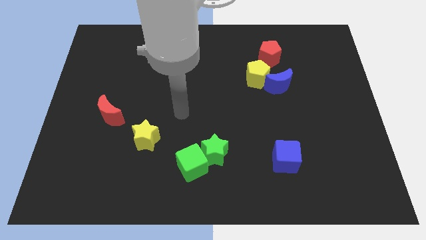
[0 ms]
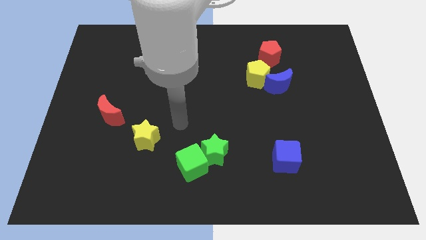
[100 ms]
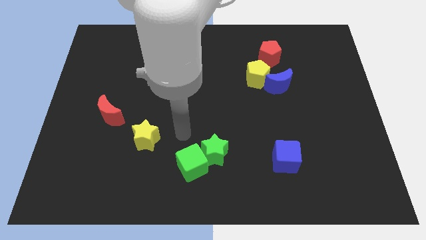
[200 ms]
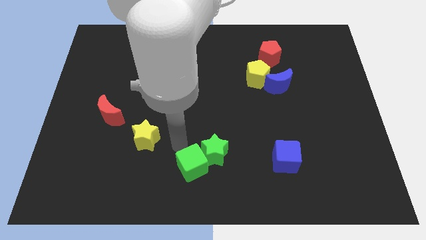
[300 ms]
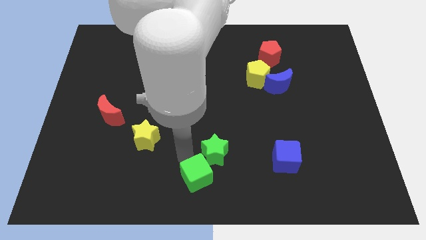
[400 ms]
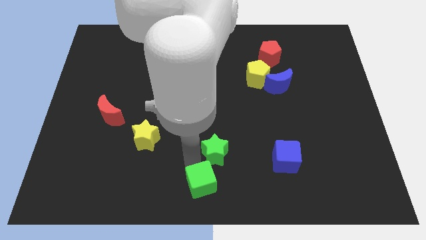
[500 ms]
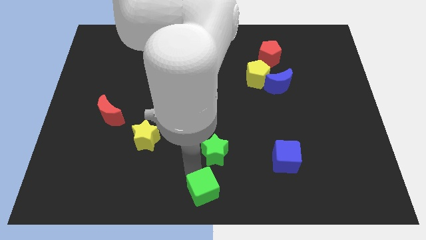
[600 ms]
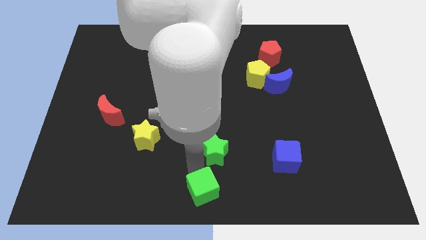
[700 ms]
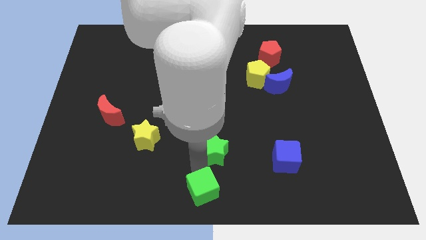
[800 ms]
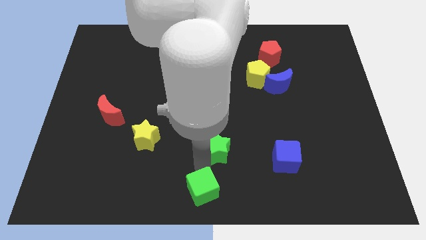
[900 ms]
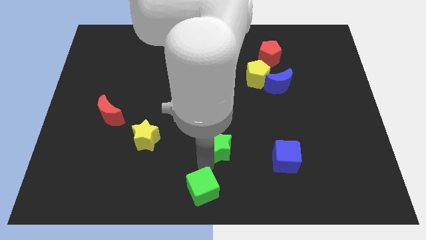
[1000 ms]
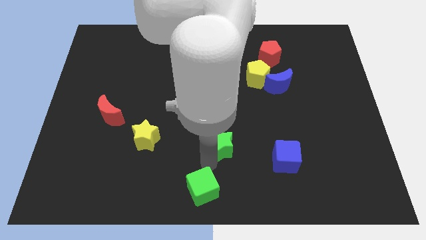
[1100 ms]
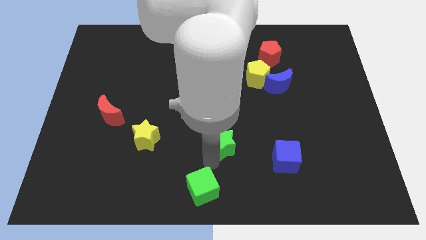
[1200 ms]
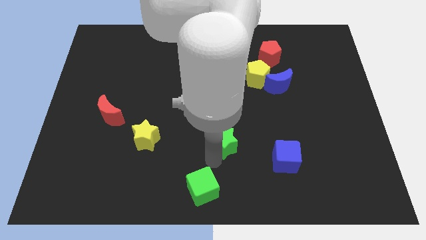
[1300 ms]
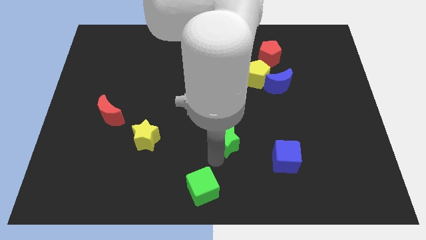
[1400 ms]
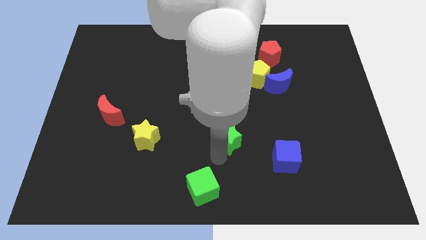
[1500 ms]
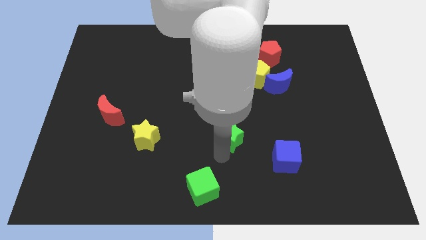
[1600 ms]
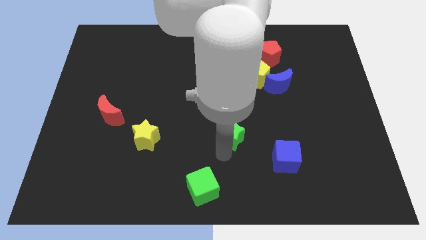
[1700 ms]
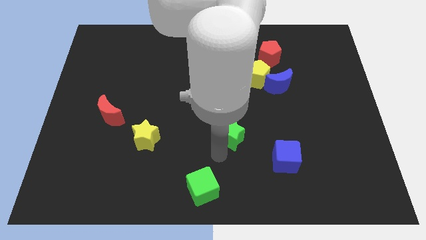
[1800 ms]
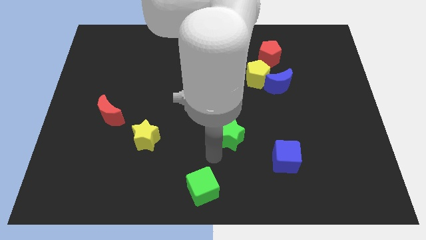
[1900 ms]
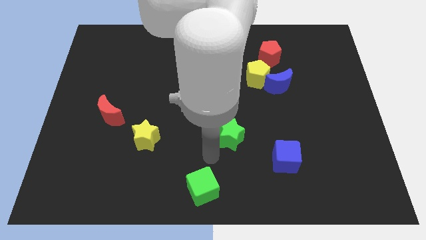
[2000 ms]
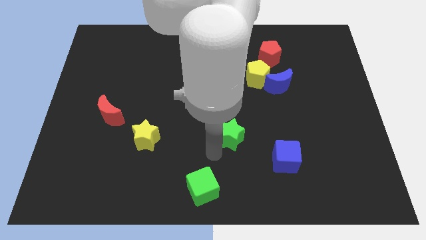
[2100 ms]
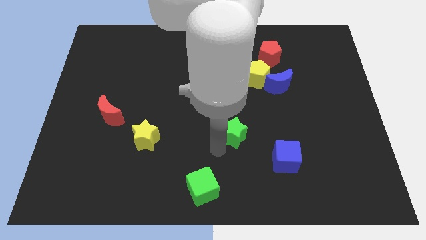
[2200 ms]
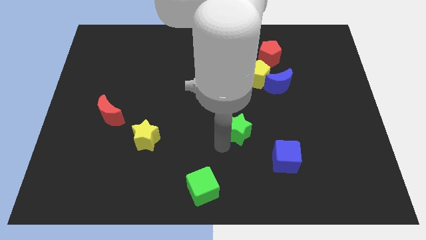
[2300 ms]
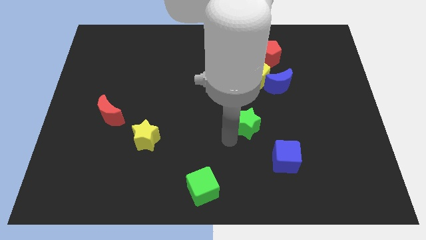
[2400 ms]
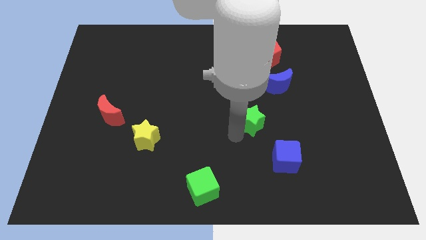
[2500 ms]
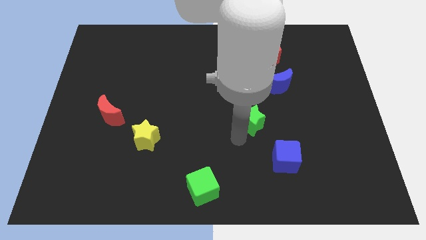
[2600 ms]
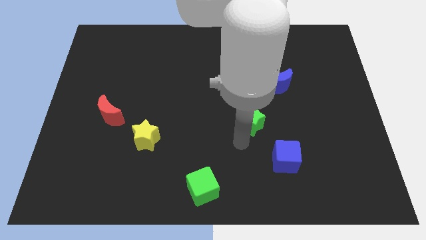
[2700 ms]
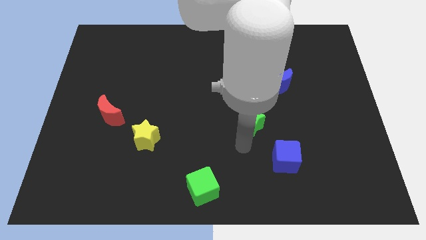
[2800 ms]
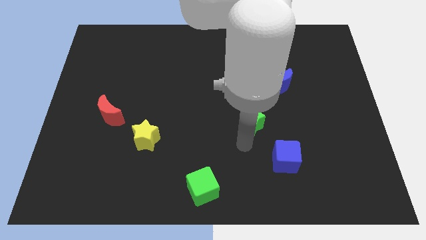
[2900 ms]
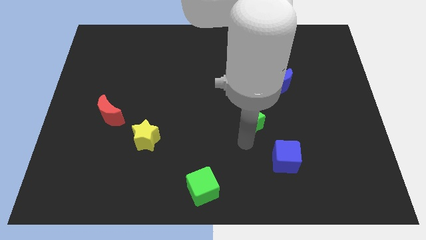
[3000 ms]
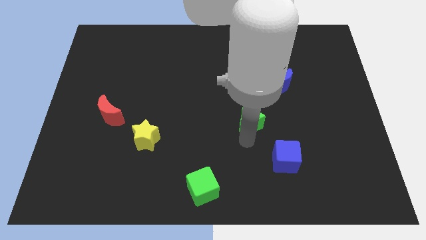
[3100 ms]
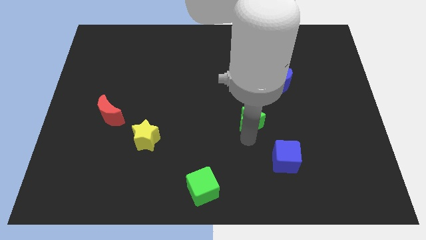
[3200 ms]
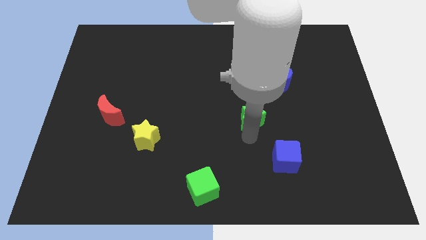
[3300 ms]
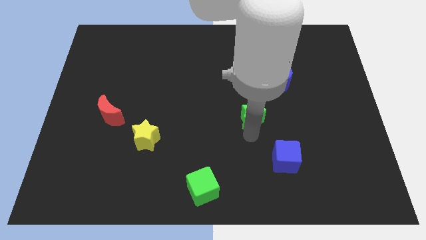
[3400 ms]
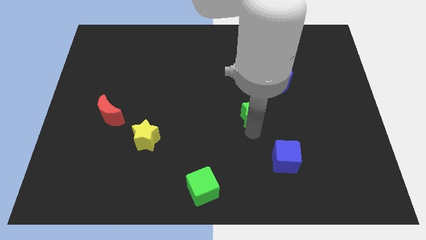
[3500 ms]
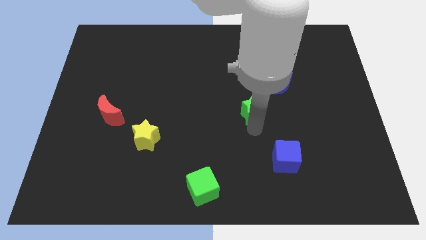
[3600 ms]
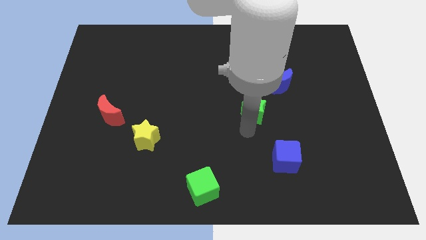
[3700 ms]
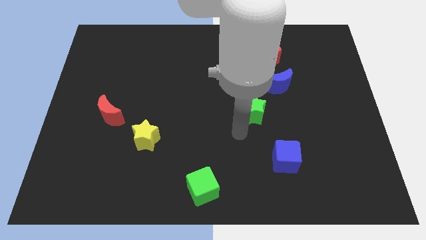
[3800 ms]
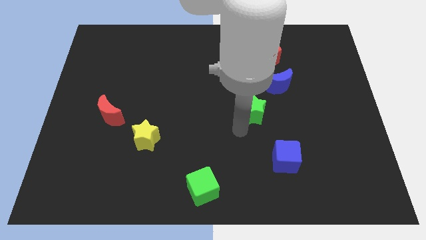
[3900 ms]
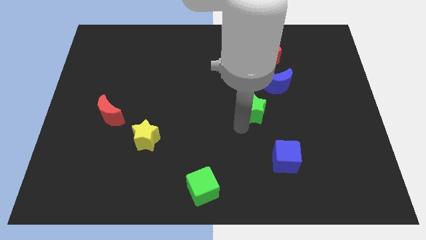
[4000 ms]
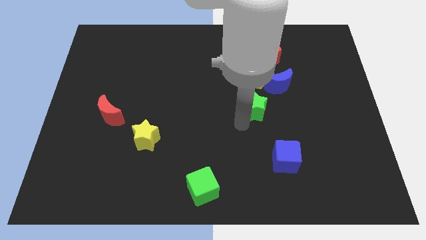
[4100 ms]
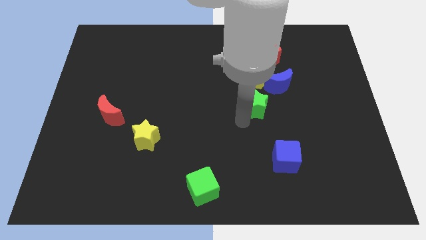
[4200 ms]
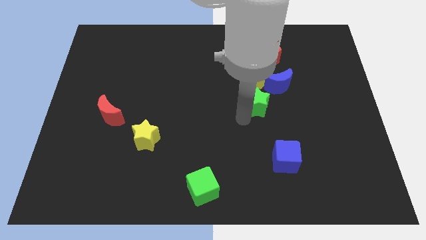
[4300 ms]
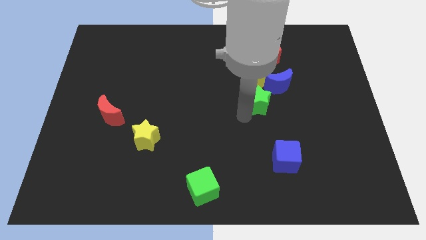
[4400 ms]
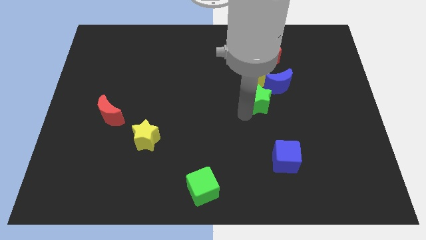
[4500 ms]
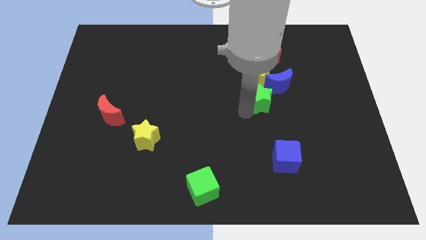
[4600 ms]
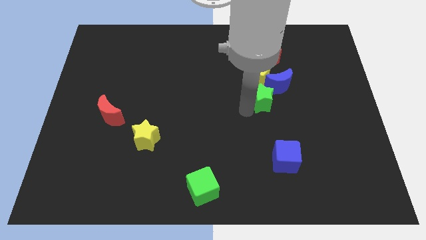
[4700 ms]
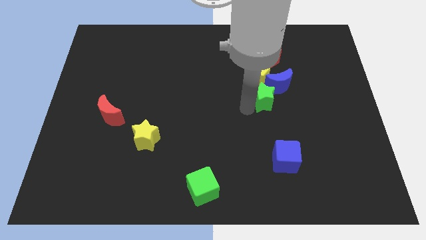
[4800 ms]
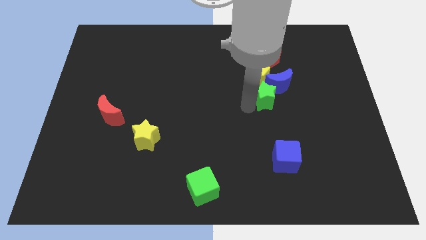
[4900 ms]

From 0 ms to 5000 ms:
put the green star next to the blue moon

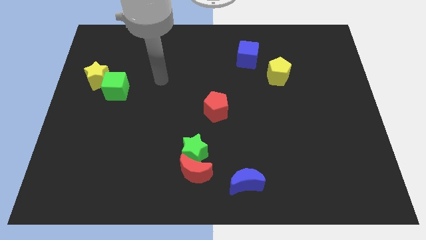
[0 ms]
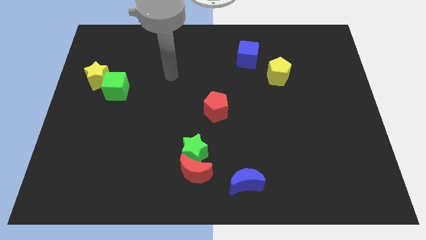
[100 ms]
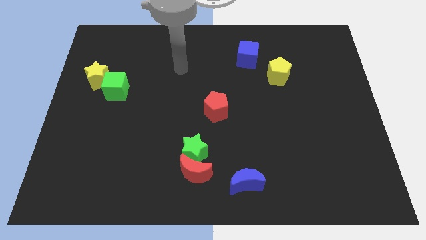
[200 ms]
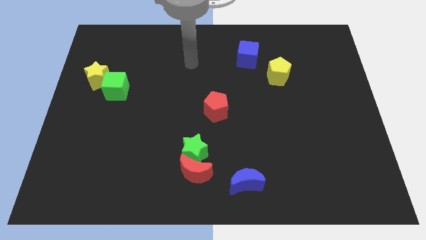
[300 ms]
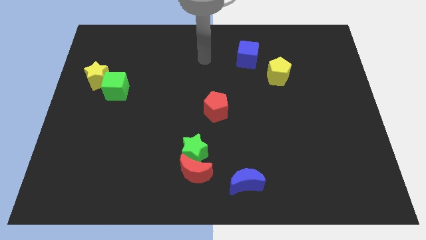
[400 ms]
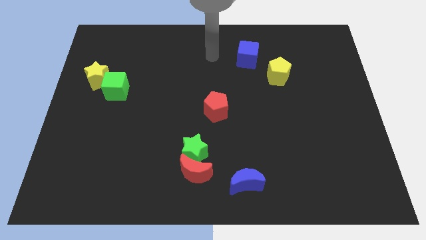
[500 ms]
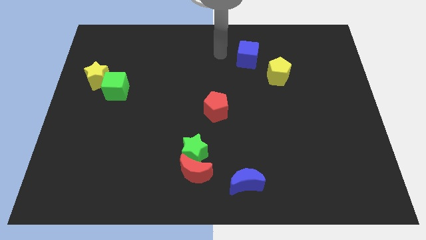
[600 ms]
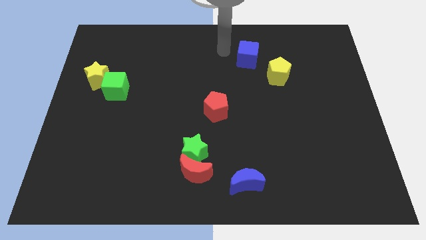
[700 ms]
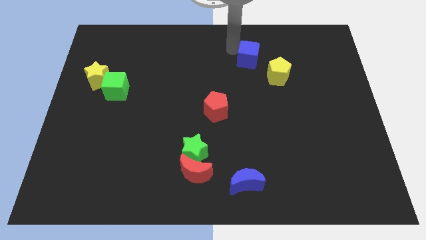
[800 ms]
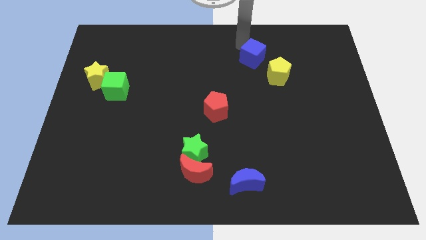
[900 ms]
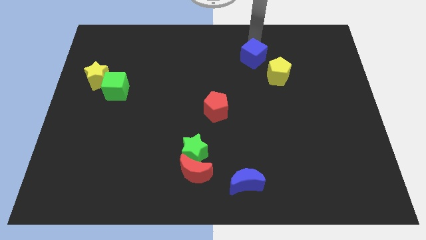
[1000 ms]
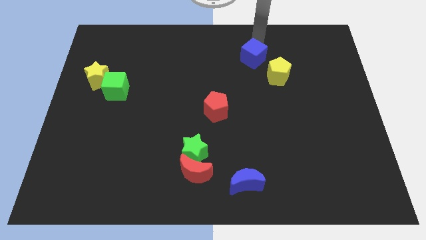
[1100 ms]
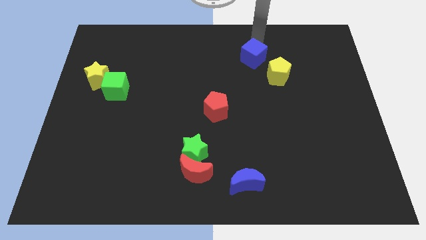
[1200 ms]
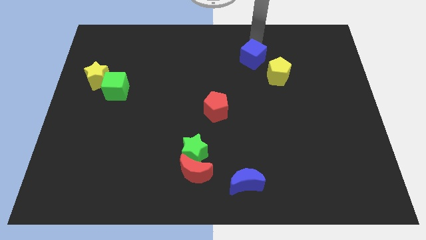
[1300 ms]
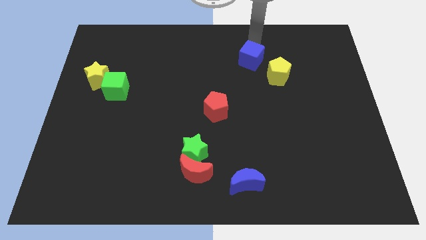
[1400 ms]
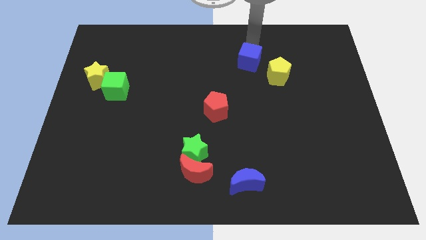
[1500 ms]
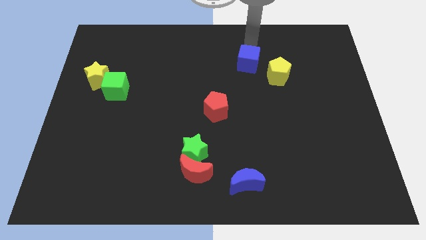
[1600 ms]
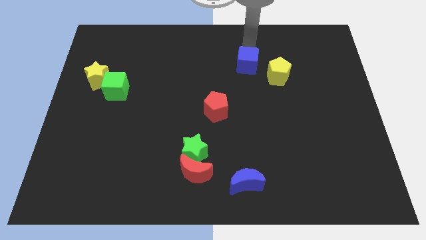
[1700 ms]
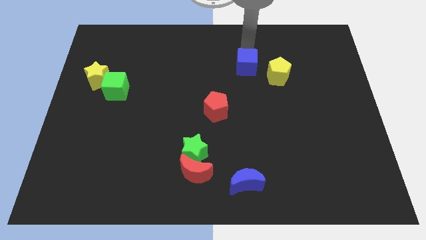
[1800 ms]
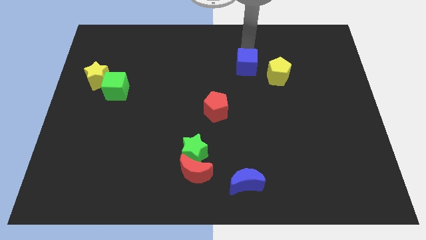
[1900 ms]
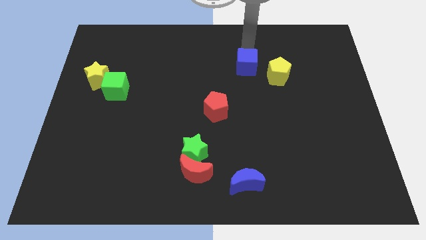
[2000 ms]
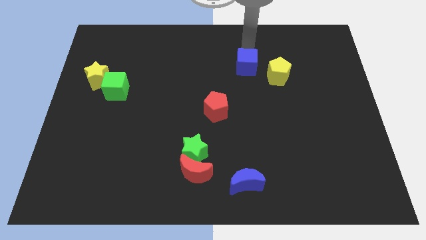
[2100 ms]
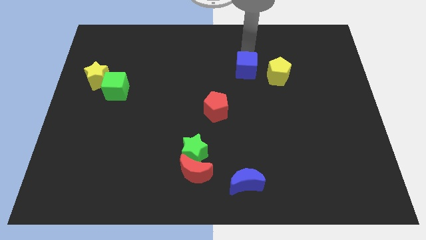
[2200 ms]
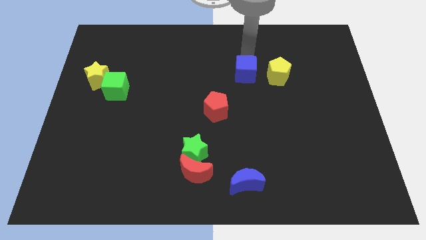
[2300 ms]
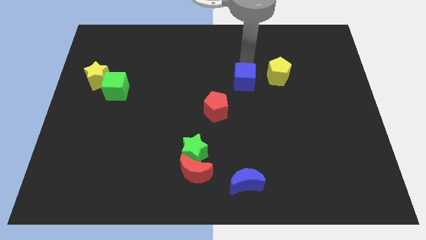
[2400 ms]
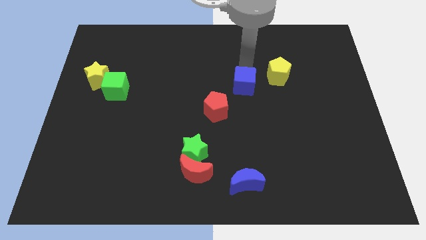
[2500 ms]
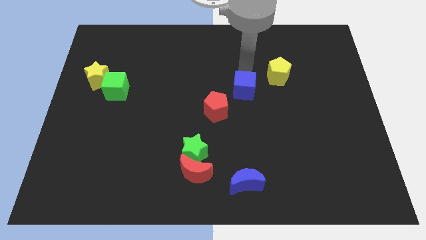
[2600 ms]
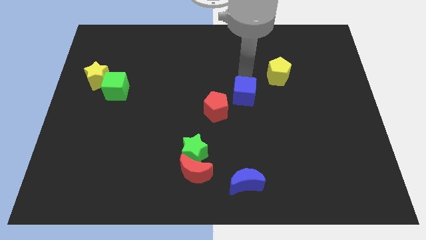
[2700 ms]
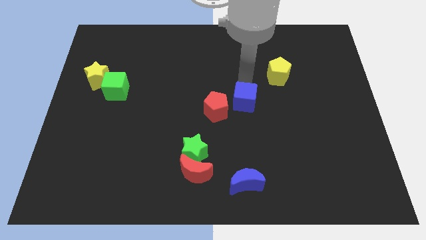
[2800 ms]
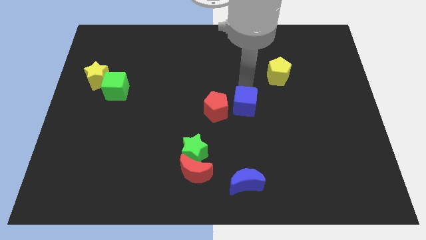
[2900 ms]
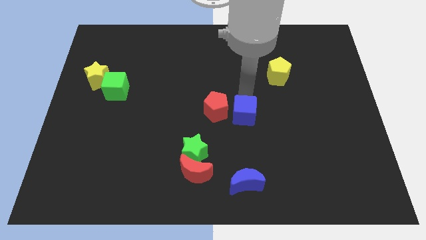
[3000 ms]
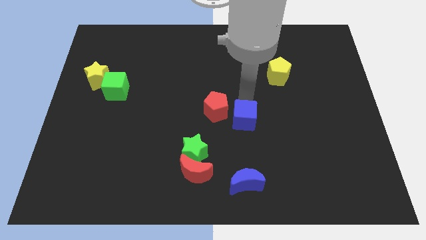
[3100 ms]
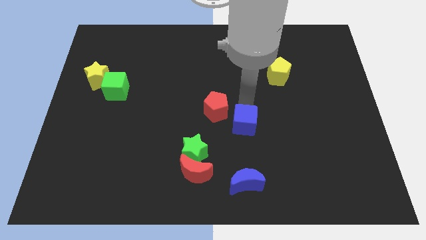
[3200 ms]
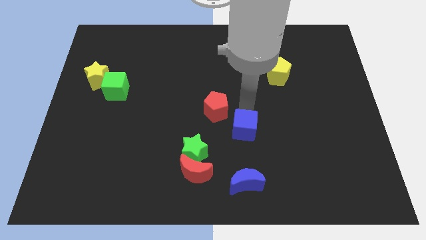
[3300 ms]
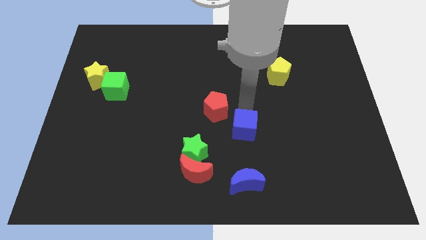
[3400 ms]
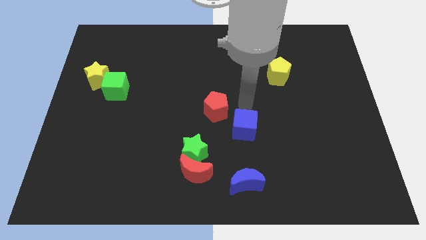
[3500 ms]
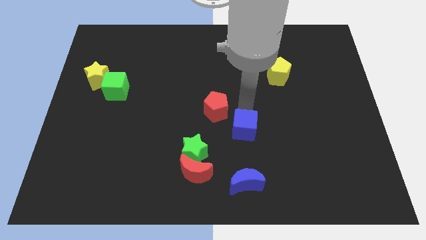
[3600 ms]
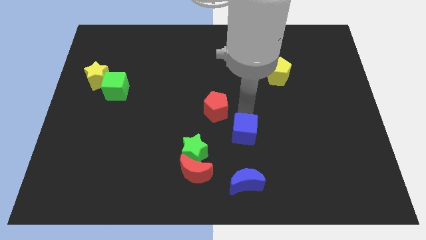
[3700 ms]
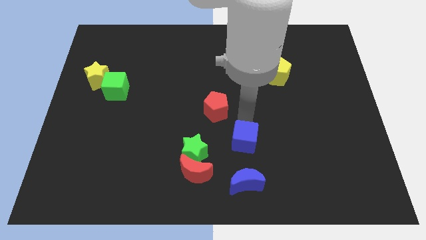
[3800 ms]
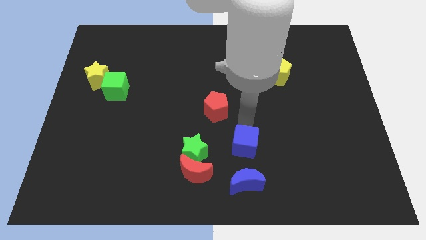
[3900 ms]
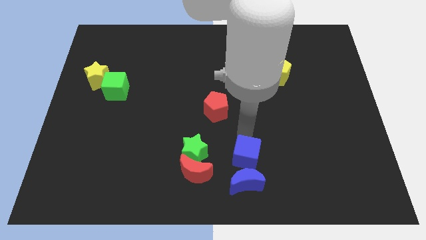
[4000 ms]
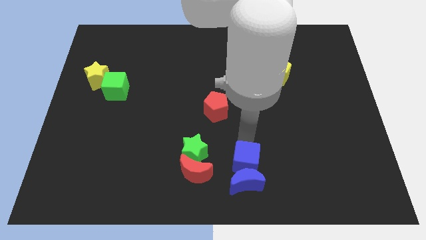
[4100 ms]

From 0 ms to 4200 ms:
put the blue cube close to the blue moon
